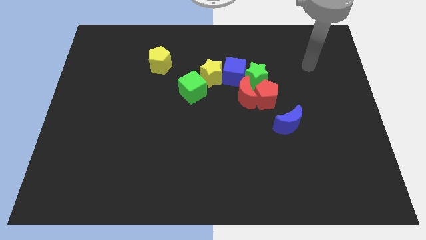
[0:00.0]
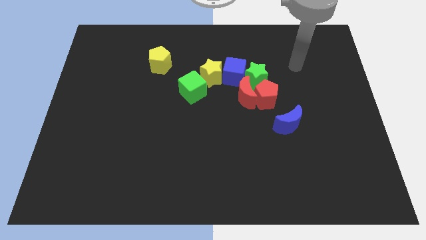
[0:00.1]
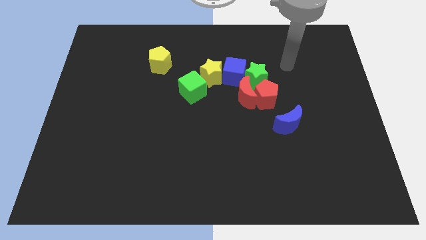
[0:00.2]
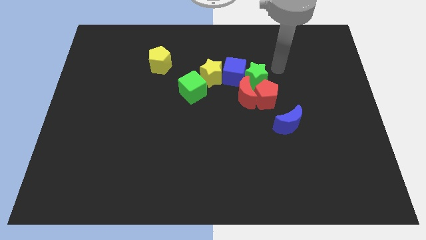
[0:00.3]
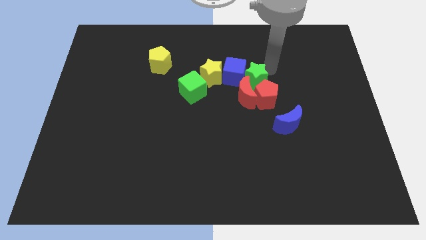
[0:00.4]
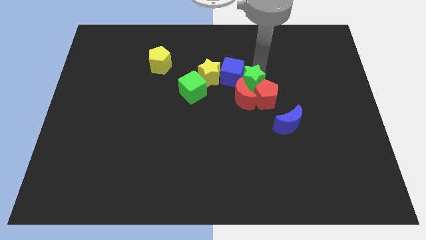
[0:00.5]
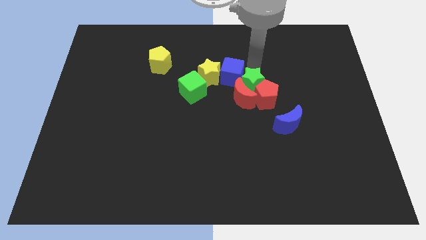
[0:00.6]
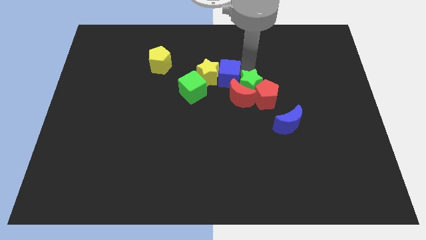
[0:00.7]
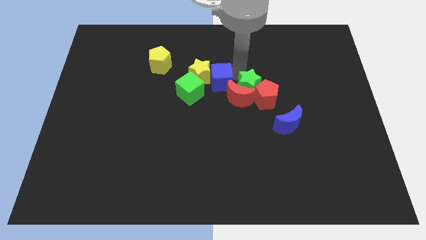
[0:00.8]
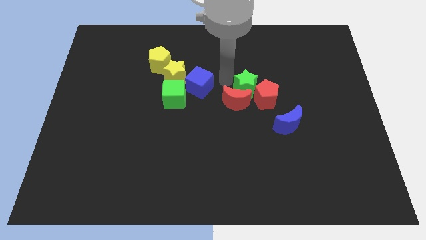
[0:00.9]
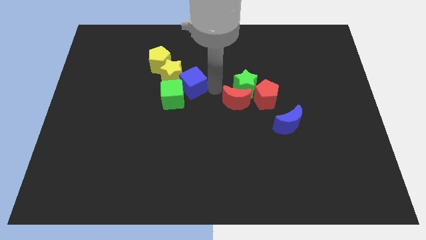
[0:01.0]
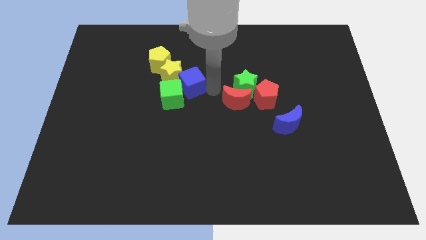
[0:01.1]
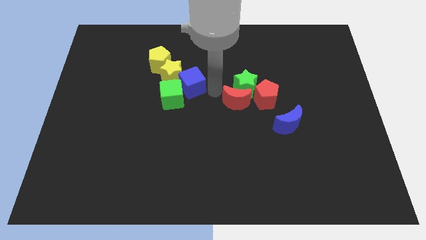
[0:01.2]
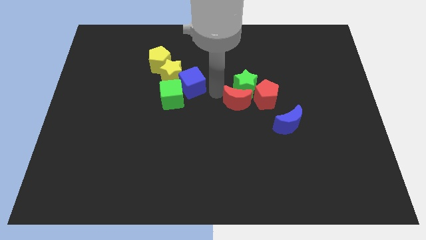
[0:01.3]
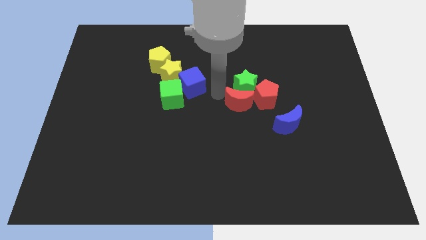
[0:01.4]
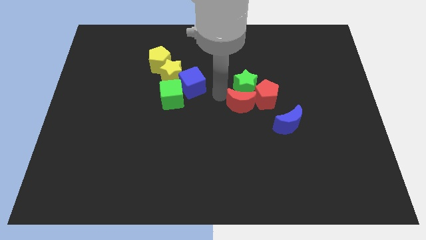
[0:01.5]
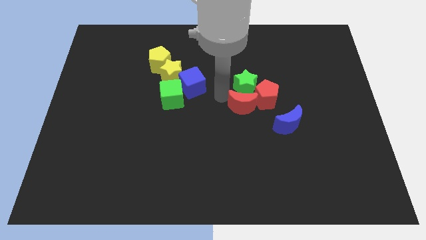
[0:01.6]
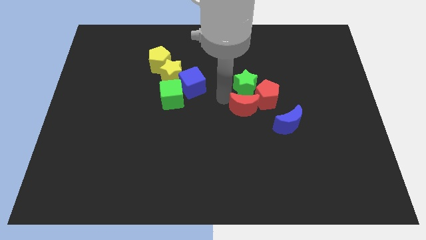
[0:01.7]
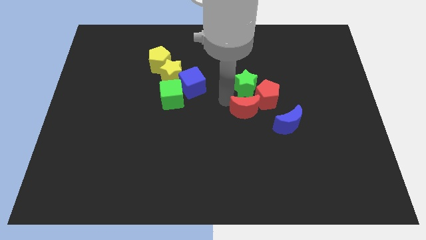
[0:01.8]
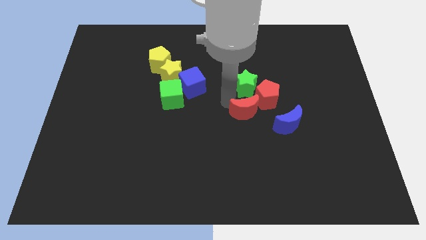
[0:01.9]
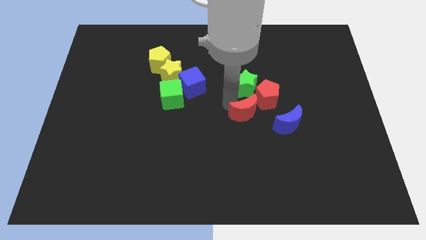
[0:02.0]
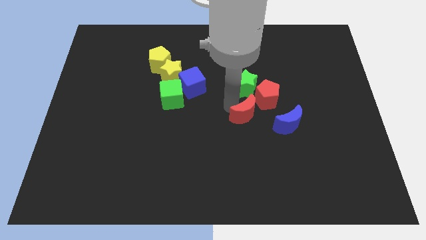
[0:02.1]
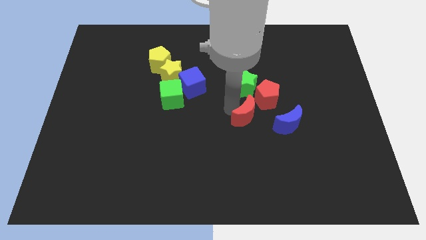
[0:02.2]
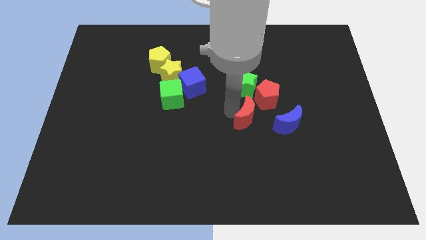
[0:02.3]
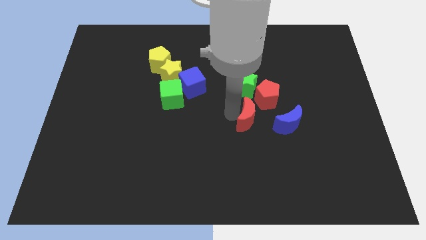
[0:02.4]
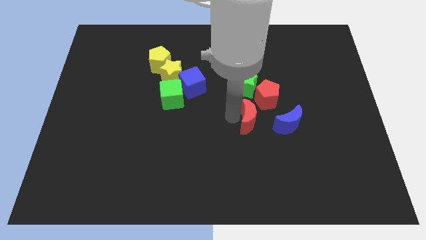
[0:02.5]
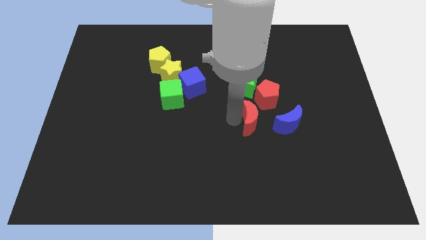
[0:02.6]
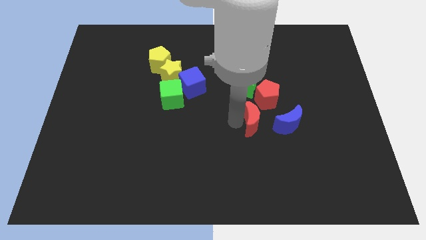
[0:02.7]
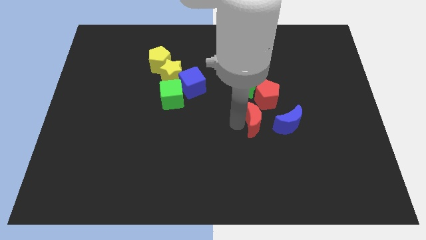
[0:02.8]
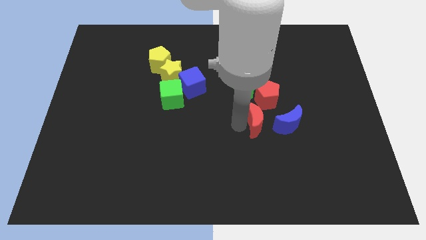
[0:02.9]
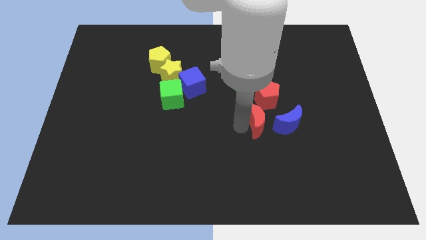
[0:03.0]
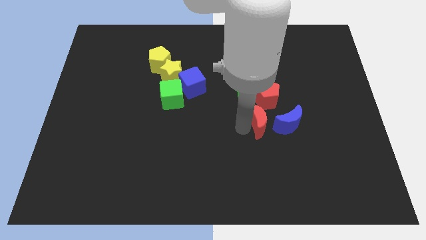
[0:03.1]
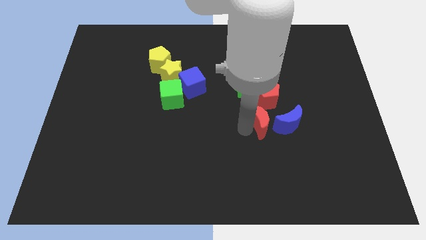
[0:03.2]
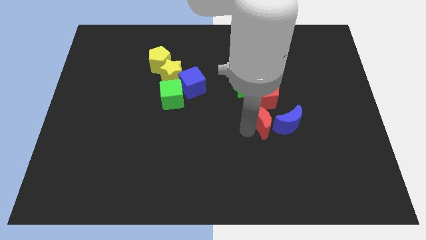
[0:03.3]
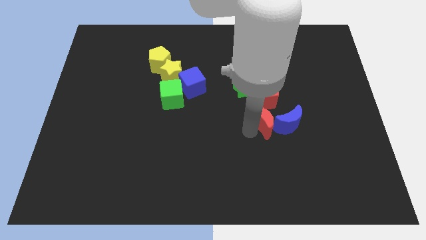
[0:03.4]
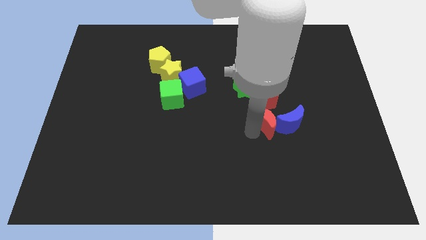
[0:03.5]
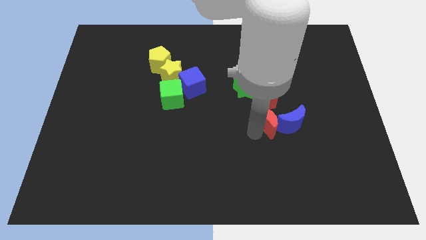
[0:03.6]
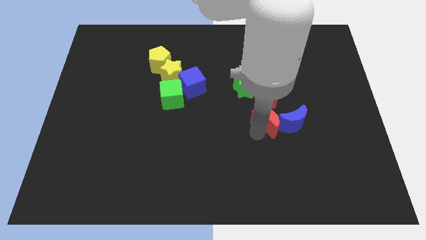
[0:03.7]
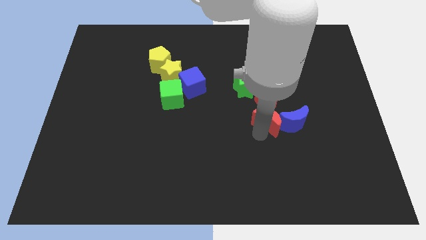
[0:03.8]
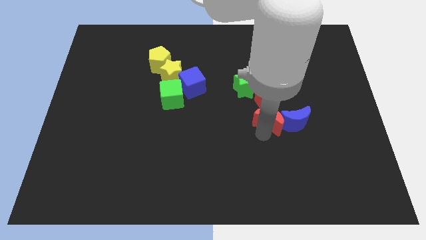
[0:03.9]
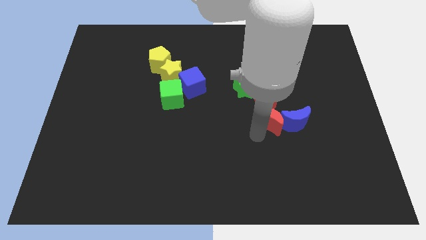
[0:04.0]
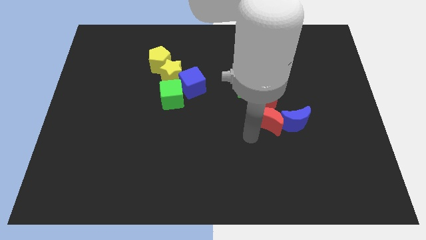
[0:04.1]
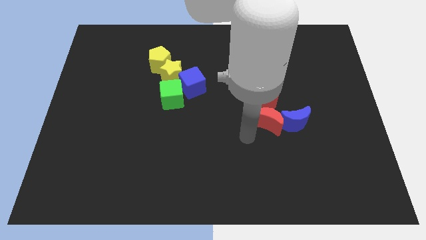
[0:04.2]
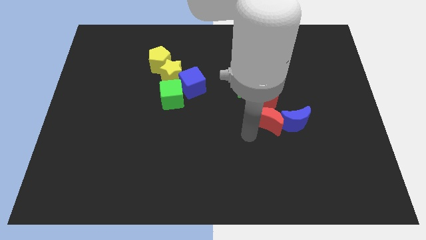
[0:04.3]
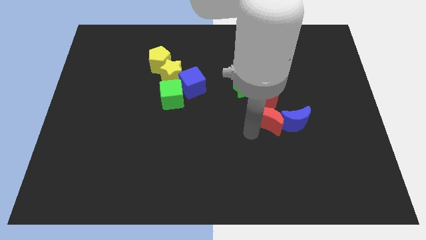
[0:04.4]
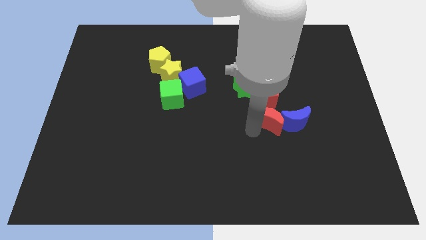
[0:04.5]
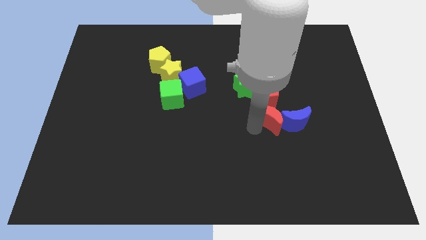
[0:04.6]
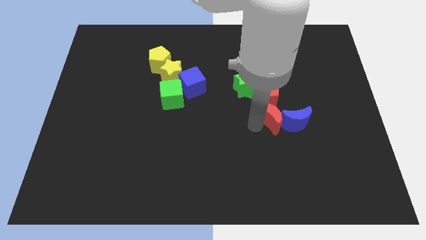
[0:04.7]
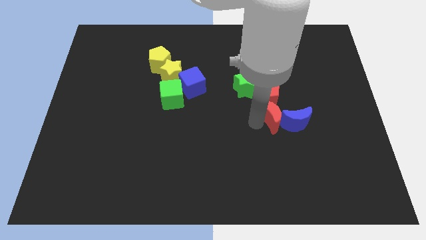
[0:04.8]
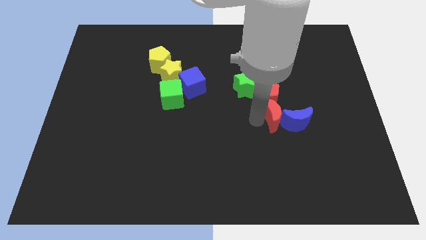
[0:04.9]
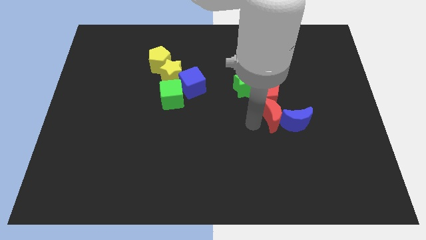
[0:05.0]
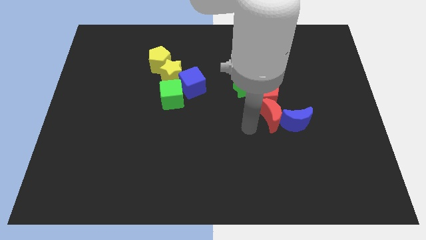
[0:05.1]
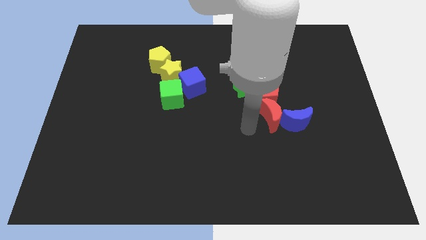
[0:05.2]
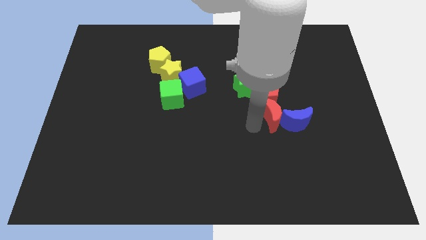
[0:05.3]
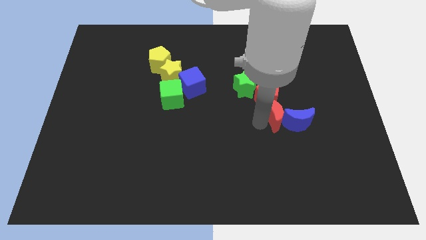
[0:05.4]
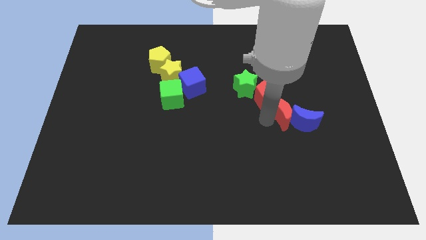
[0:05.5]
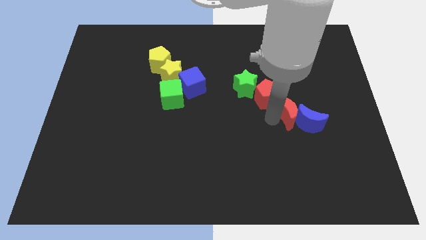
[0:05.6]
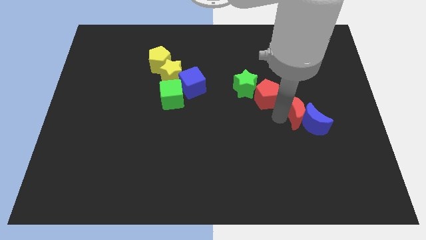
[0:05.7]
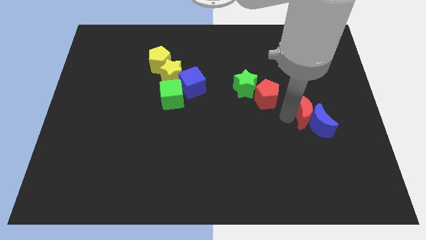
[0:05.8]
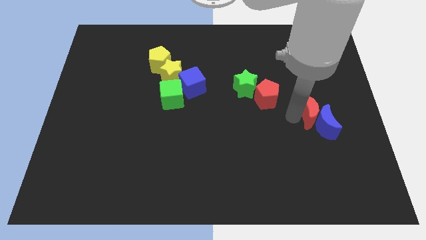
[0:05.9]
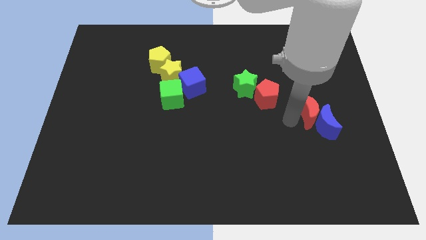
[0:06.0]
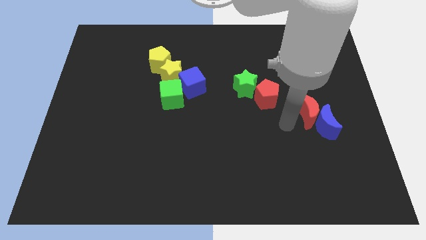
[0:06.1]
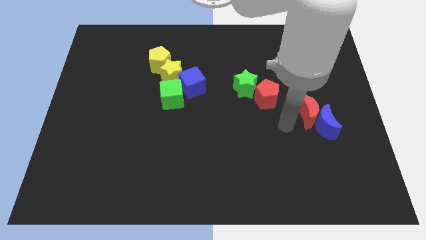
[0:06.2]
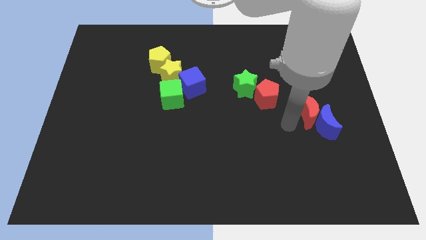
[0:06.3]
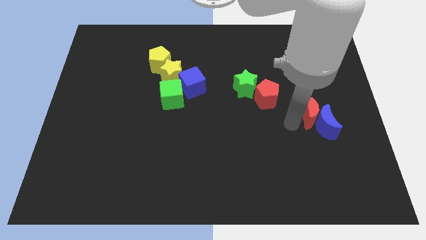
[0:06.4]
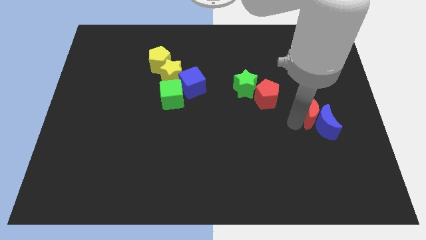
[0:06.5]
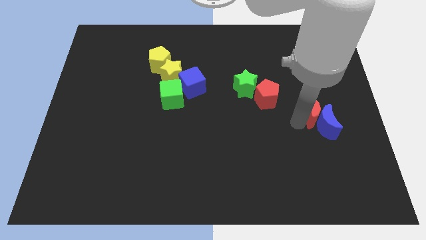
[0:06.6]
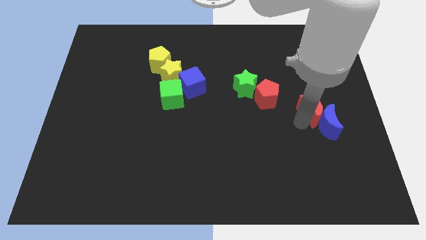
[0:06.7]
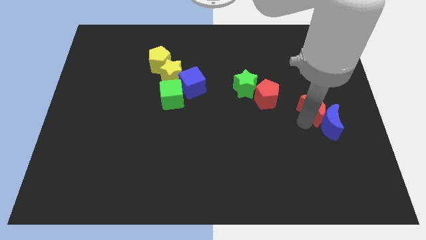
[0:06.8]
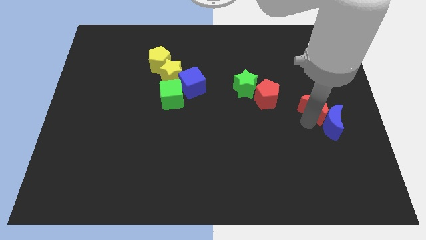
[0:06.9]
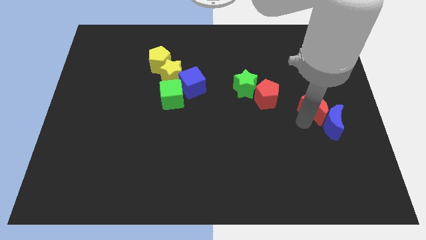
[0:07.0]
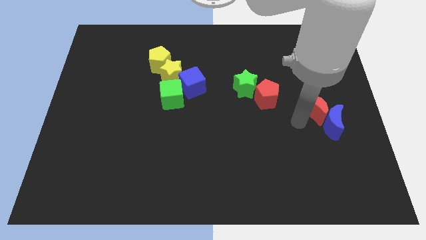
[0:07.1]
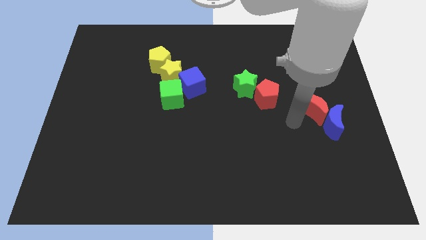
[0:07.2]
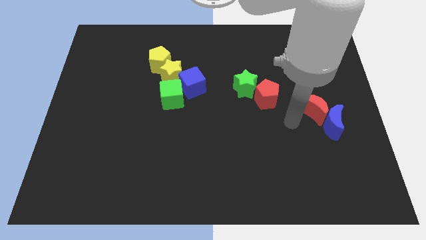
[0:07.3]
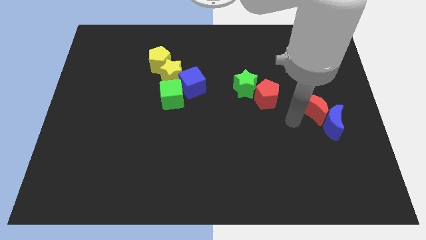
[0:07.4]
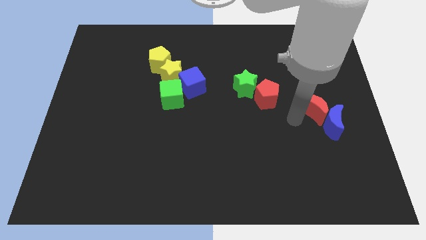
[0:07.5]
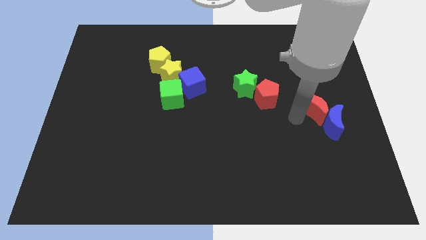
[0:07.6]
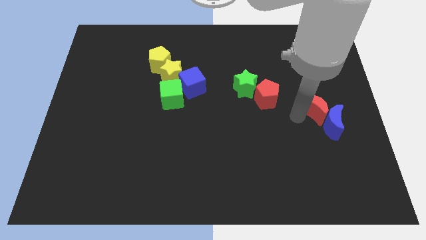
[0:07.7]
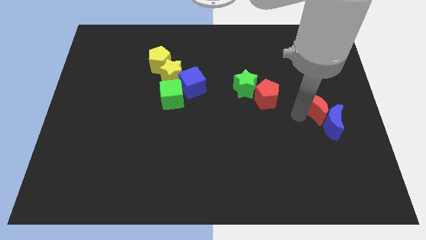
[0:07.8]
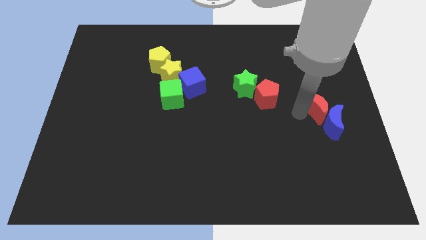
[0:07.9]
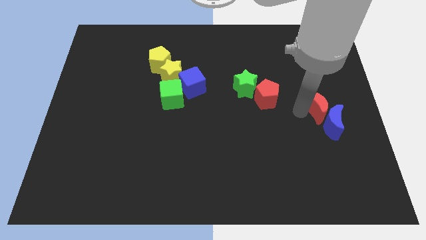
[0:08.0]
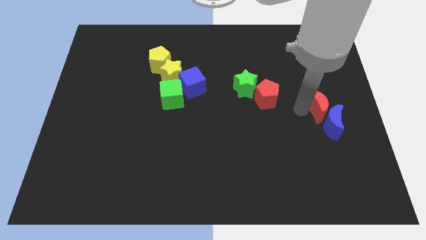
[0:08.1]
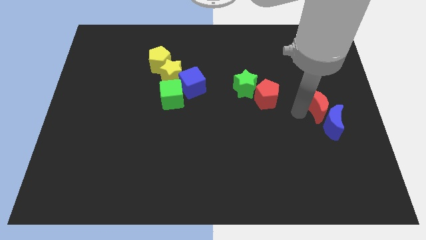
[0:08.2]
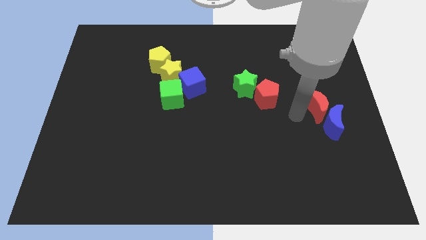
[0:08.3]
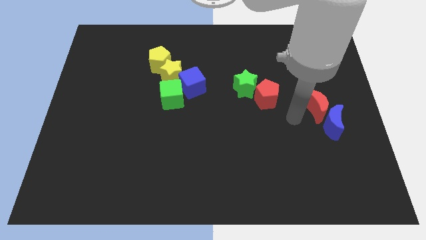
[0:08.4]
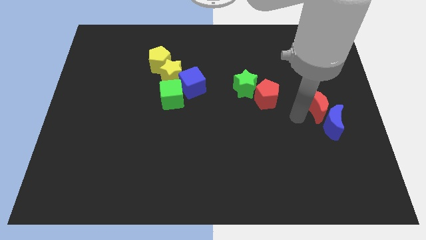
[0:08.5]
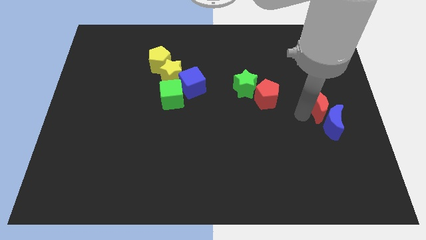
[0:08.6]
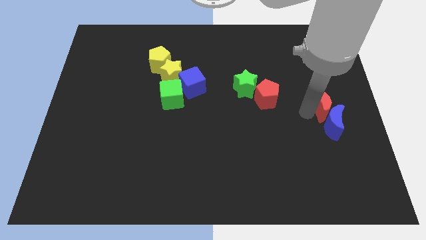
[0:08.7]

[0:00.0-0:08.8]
slide the red moon to the right side of the board
